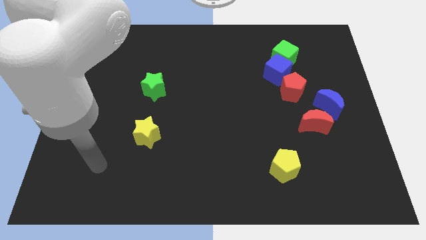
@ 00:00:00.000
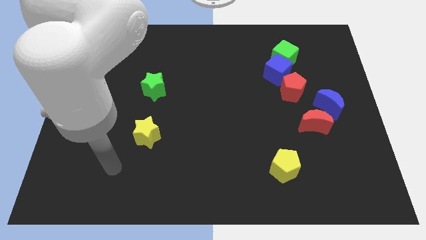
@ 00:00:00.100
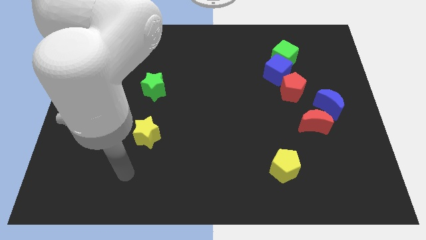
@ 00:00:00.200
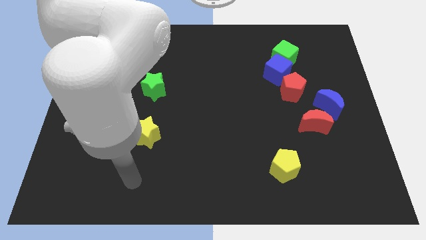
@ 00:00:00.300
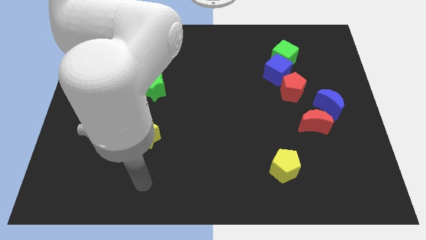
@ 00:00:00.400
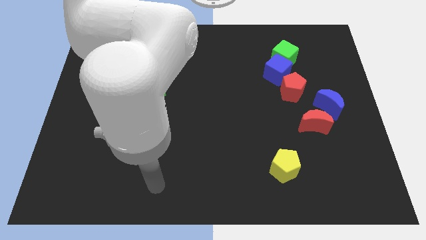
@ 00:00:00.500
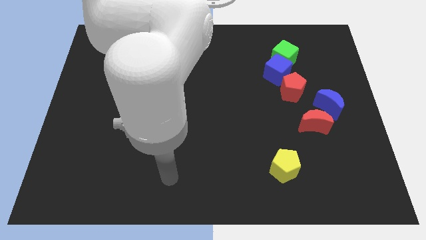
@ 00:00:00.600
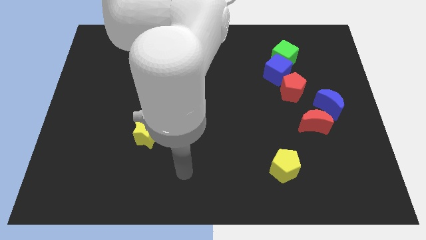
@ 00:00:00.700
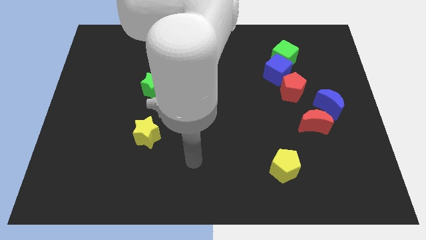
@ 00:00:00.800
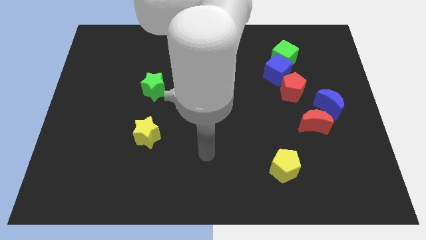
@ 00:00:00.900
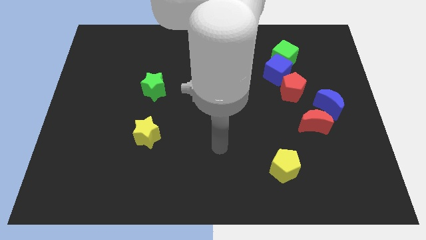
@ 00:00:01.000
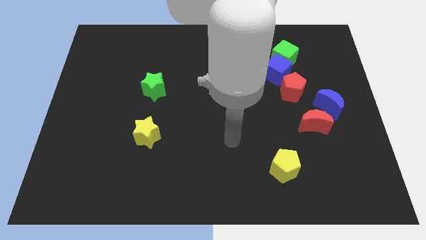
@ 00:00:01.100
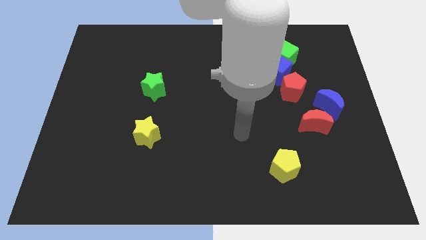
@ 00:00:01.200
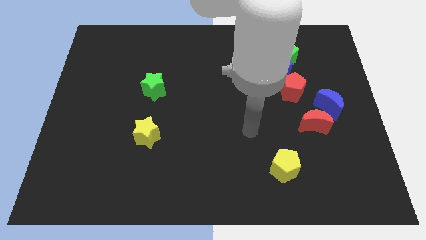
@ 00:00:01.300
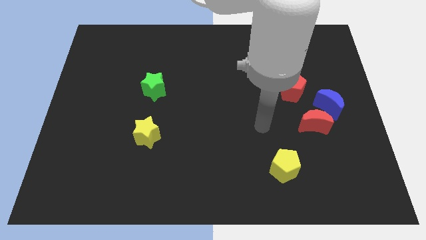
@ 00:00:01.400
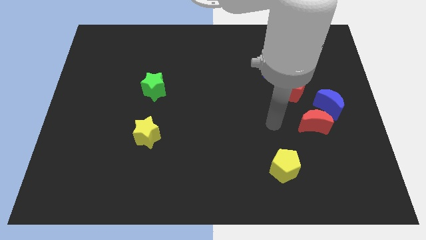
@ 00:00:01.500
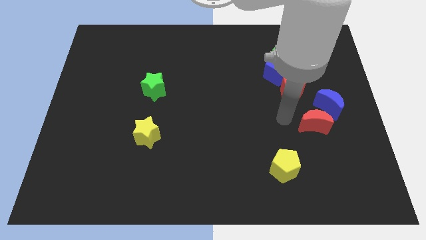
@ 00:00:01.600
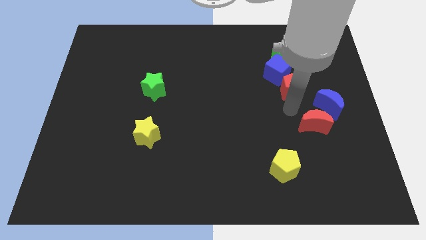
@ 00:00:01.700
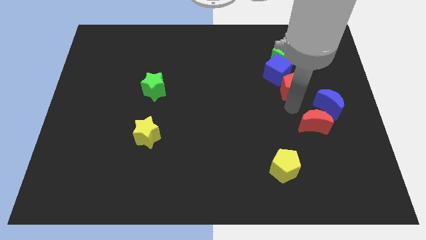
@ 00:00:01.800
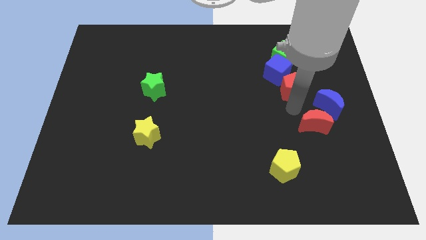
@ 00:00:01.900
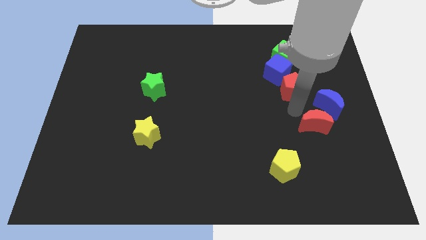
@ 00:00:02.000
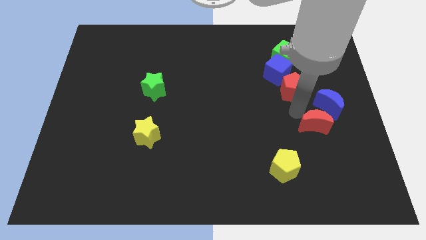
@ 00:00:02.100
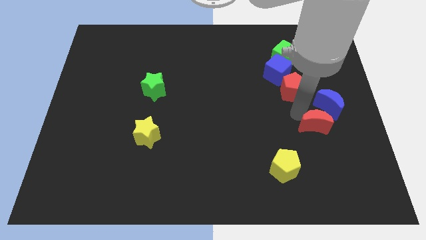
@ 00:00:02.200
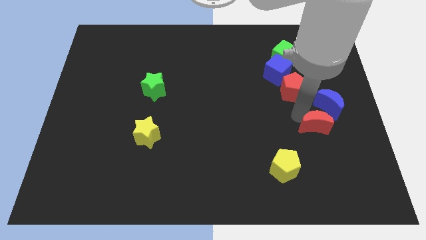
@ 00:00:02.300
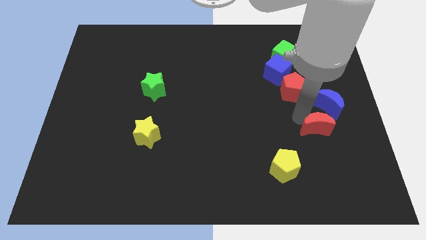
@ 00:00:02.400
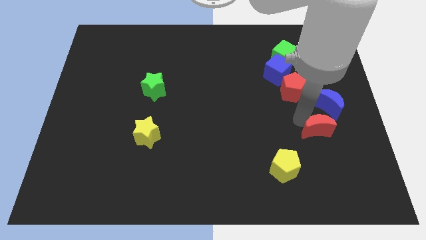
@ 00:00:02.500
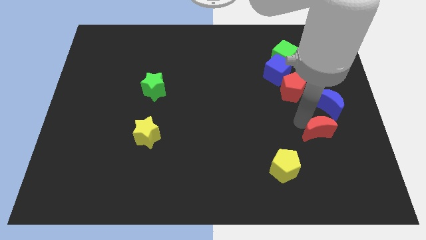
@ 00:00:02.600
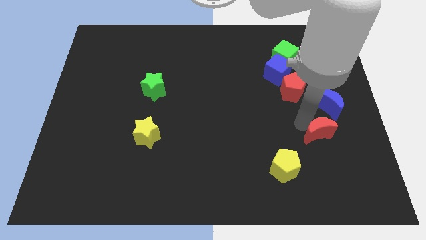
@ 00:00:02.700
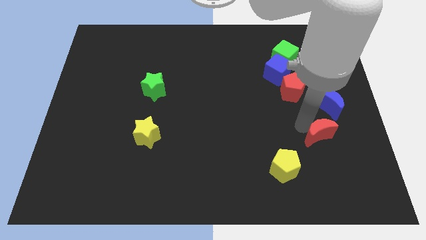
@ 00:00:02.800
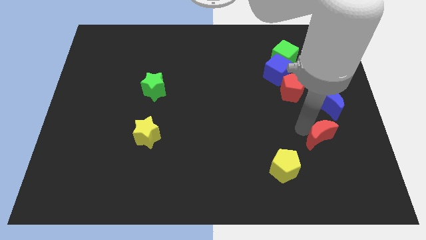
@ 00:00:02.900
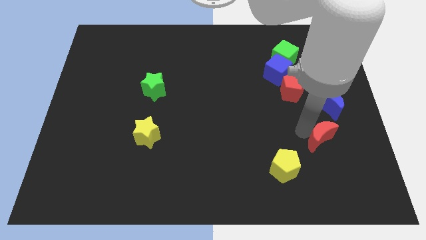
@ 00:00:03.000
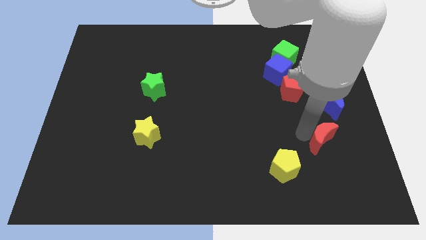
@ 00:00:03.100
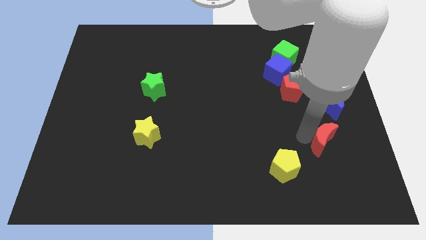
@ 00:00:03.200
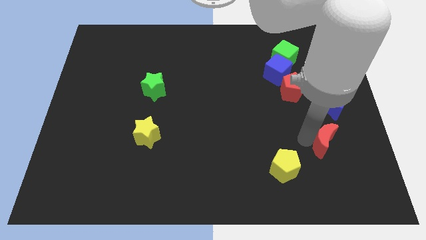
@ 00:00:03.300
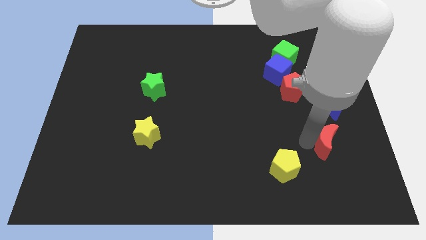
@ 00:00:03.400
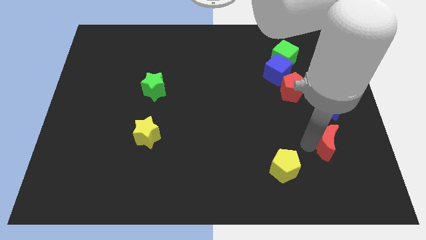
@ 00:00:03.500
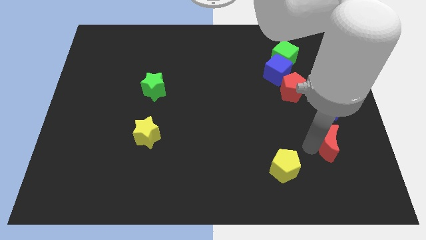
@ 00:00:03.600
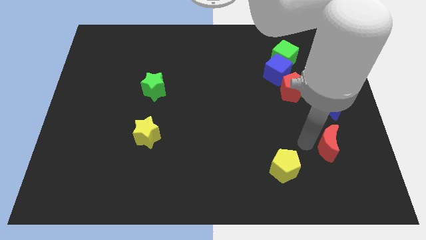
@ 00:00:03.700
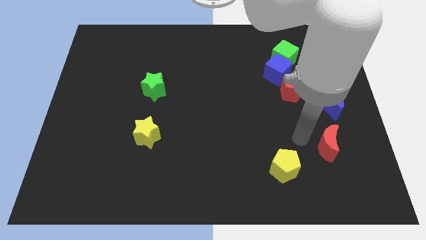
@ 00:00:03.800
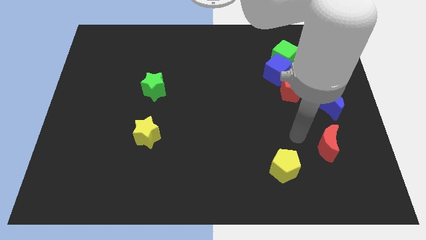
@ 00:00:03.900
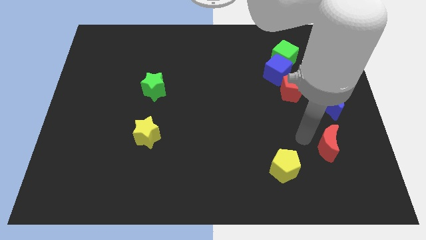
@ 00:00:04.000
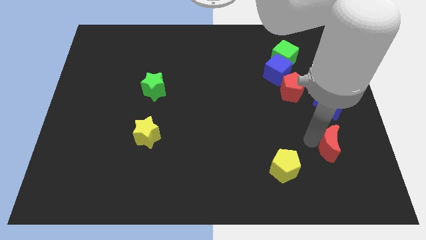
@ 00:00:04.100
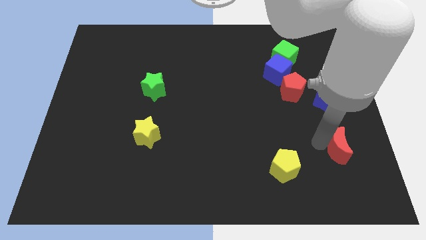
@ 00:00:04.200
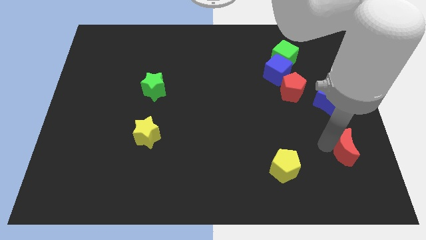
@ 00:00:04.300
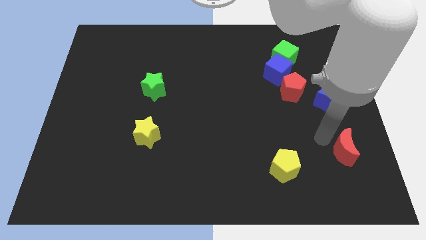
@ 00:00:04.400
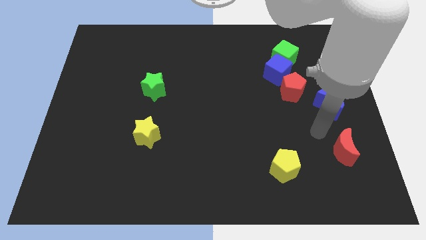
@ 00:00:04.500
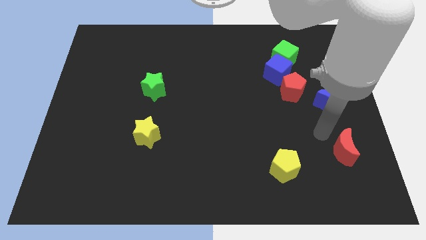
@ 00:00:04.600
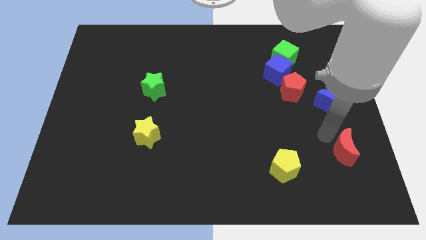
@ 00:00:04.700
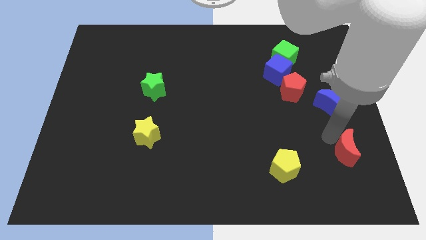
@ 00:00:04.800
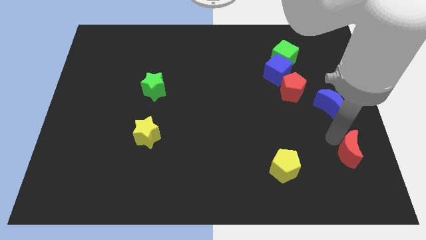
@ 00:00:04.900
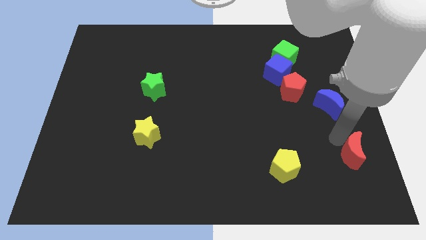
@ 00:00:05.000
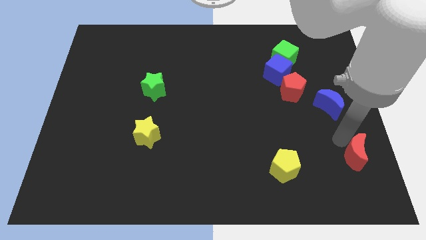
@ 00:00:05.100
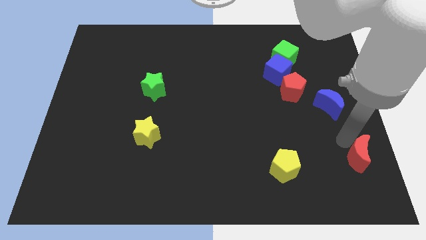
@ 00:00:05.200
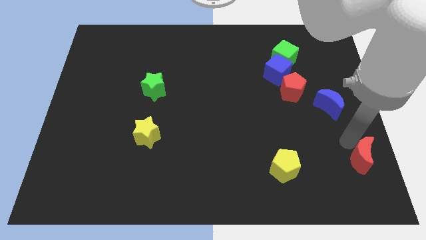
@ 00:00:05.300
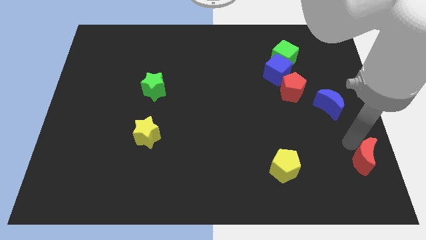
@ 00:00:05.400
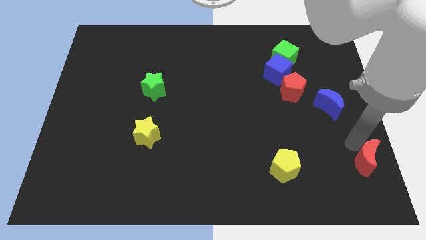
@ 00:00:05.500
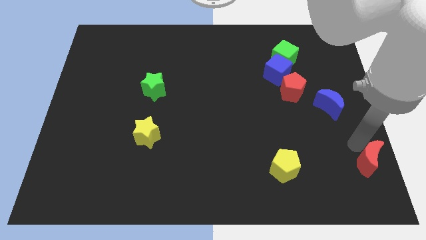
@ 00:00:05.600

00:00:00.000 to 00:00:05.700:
move the red moon to the bottom right corner

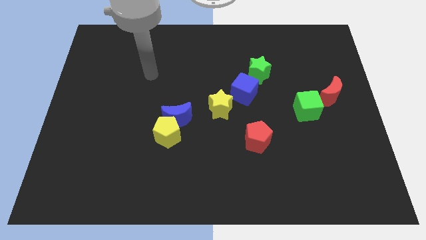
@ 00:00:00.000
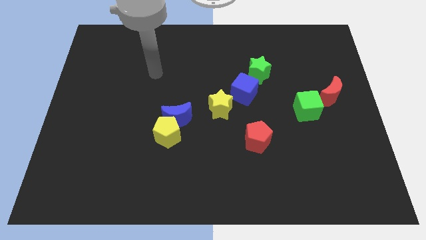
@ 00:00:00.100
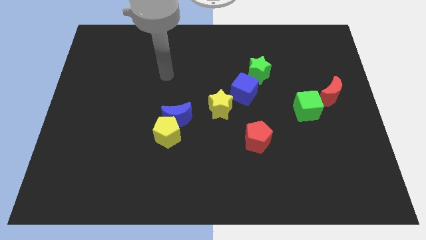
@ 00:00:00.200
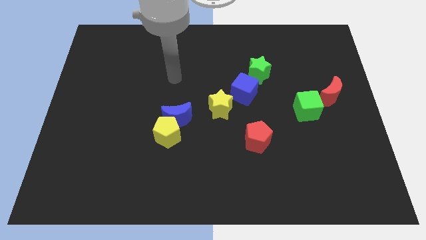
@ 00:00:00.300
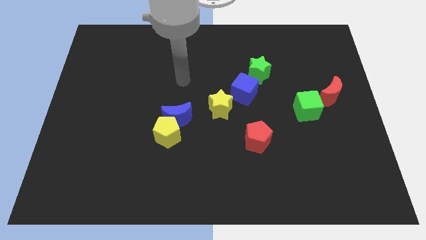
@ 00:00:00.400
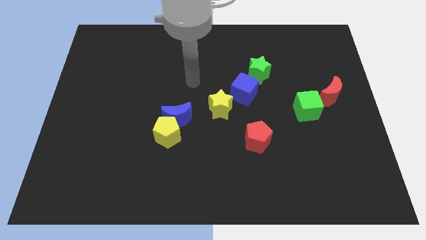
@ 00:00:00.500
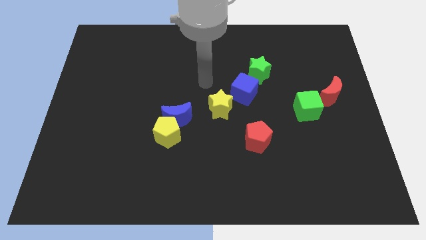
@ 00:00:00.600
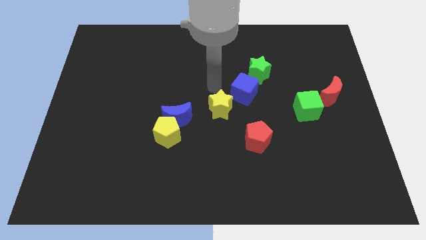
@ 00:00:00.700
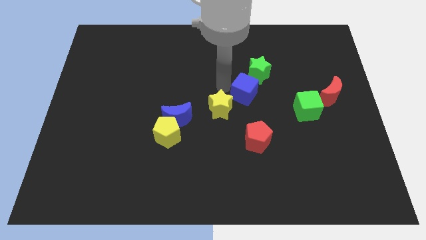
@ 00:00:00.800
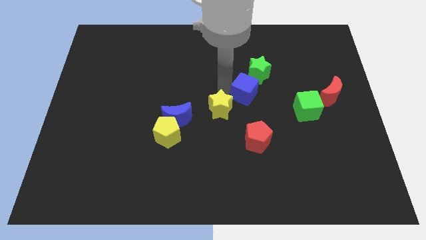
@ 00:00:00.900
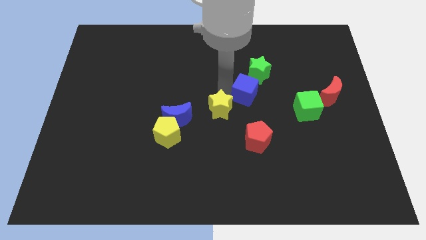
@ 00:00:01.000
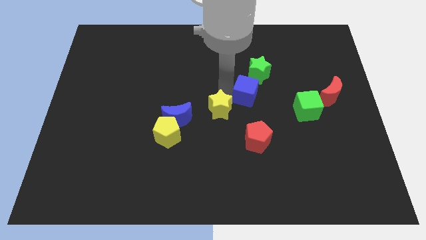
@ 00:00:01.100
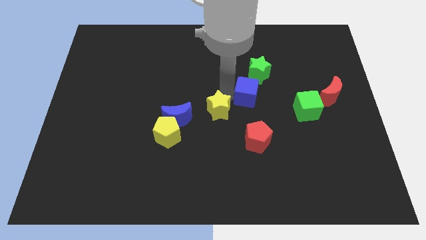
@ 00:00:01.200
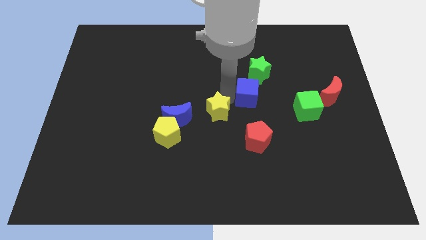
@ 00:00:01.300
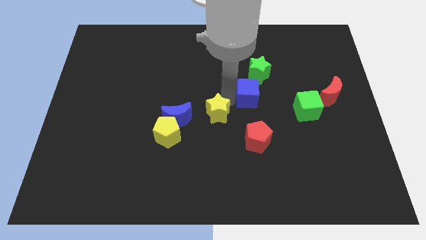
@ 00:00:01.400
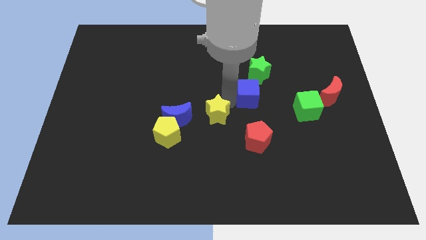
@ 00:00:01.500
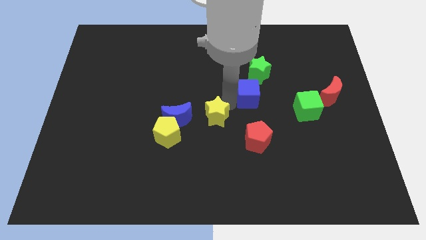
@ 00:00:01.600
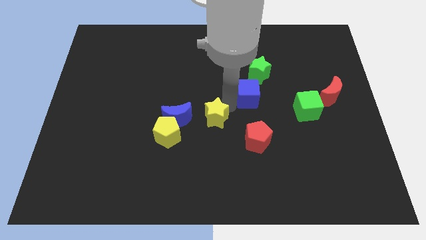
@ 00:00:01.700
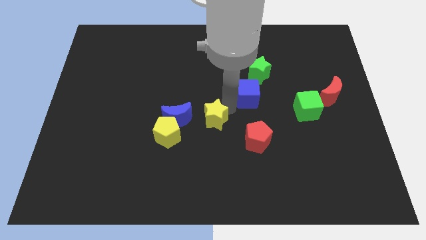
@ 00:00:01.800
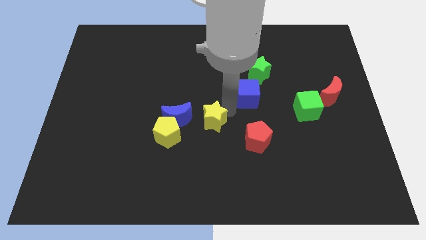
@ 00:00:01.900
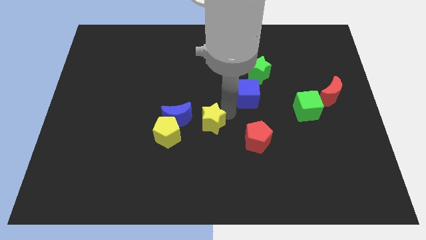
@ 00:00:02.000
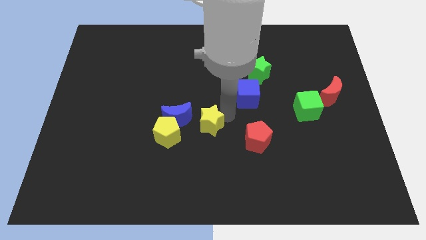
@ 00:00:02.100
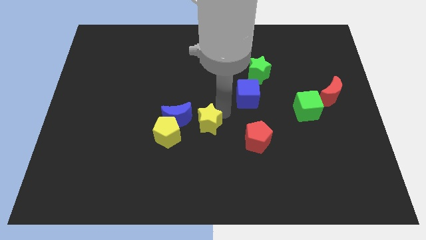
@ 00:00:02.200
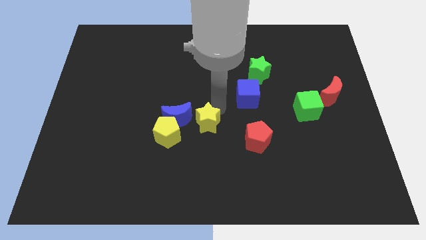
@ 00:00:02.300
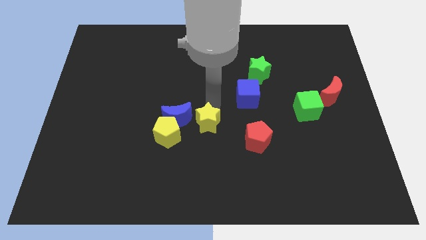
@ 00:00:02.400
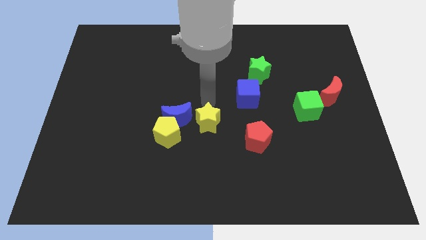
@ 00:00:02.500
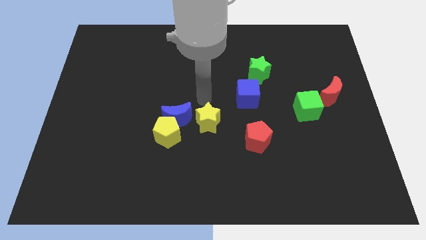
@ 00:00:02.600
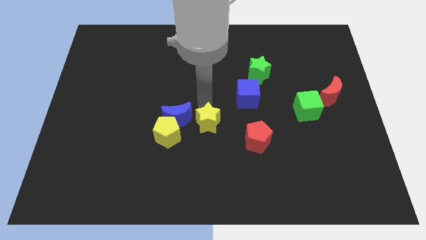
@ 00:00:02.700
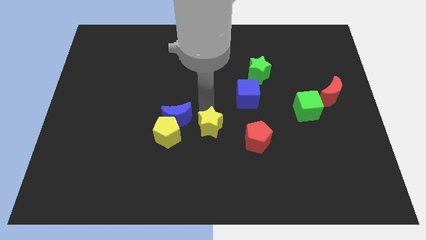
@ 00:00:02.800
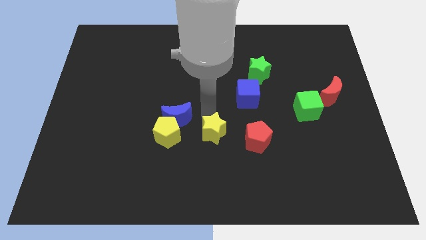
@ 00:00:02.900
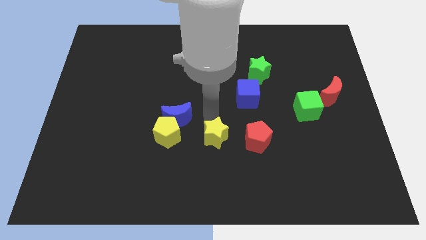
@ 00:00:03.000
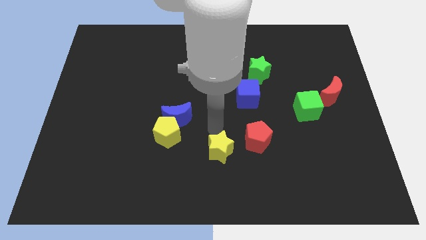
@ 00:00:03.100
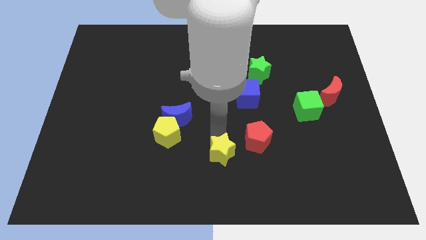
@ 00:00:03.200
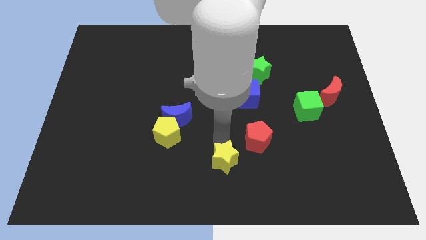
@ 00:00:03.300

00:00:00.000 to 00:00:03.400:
put the yellow star to the bottom side
